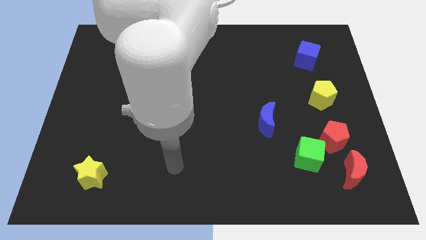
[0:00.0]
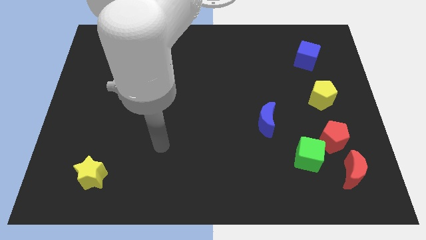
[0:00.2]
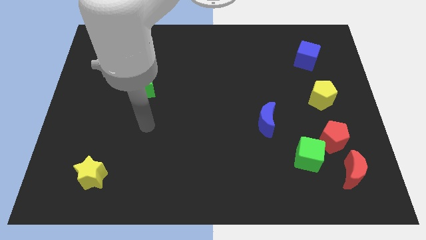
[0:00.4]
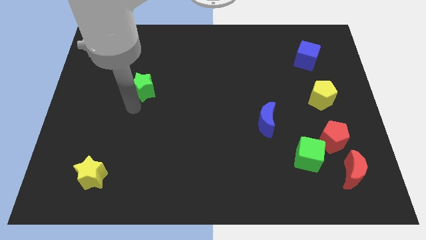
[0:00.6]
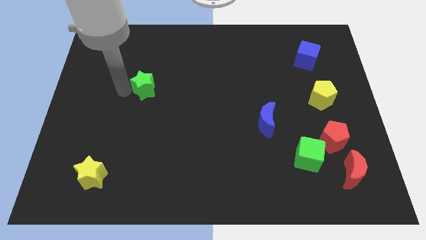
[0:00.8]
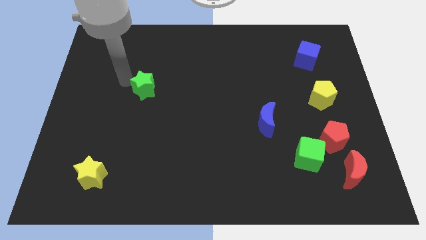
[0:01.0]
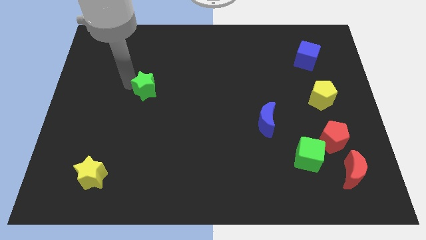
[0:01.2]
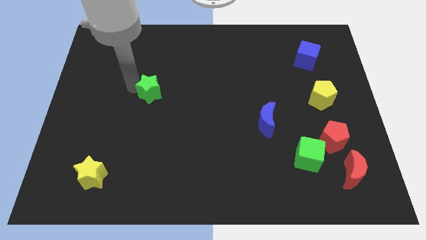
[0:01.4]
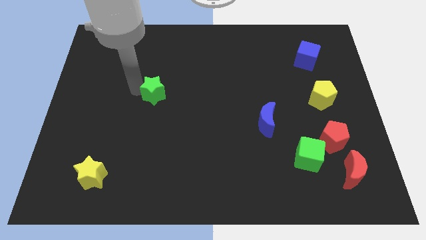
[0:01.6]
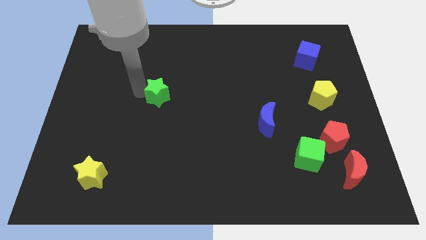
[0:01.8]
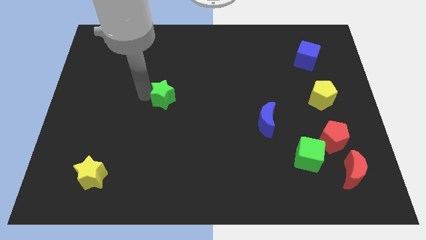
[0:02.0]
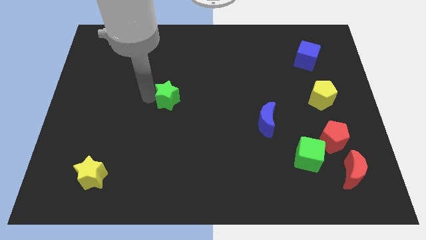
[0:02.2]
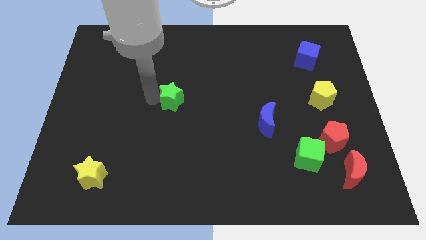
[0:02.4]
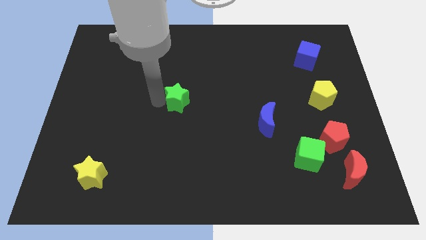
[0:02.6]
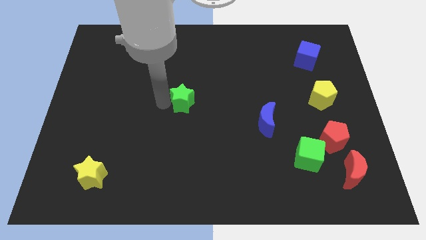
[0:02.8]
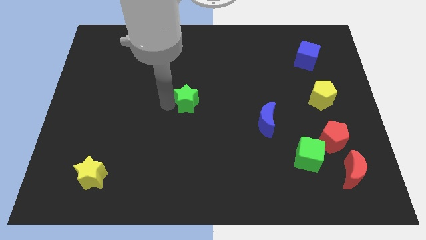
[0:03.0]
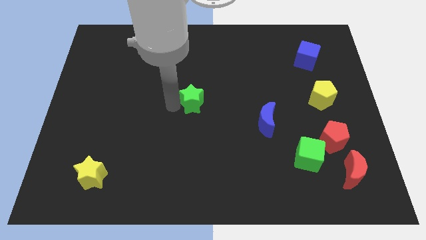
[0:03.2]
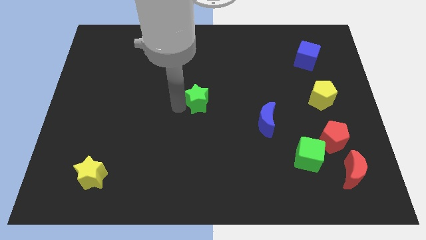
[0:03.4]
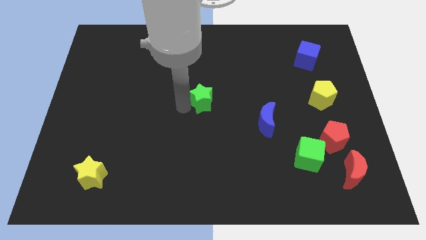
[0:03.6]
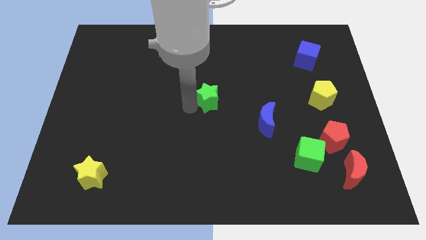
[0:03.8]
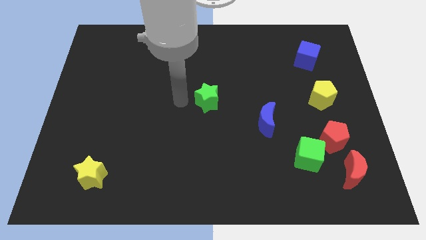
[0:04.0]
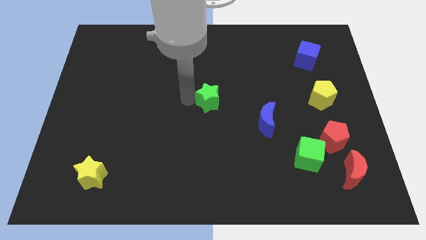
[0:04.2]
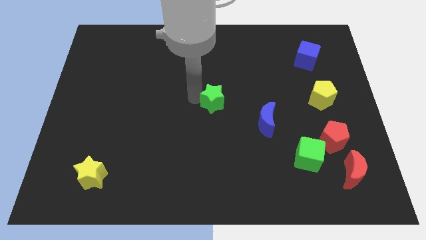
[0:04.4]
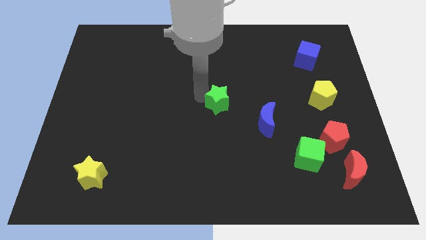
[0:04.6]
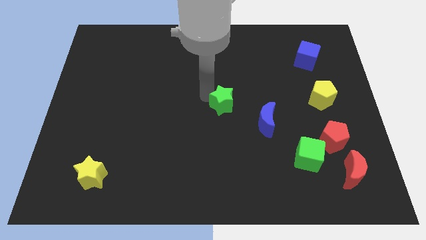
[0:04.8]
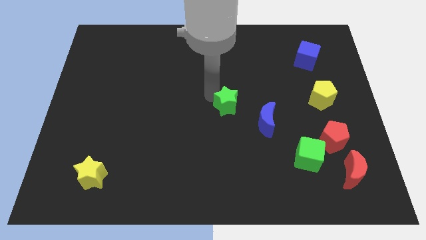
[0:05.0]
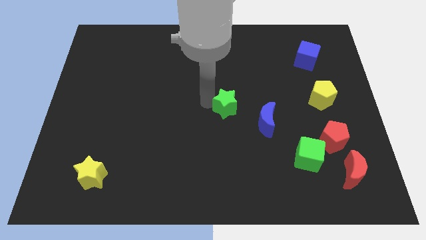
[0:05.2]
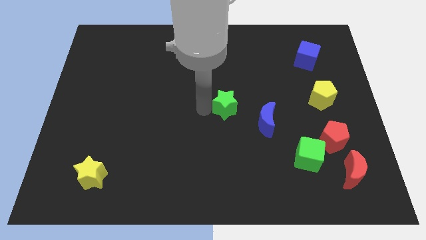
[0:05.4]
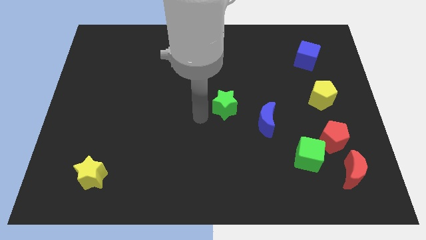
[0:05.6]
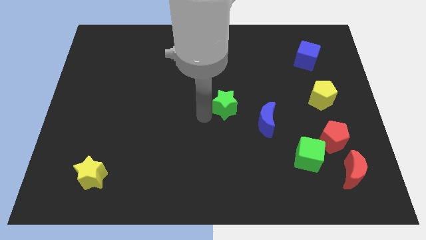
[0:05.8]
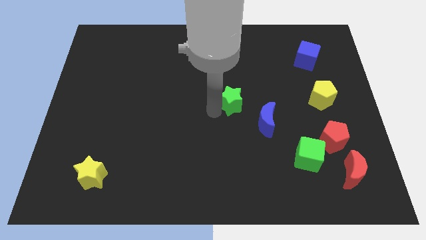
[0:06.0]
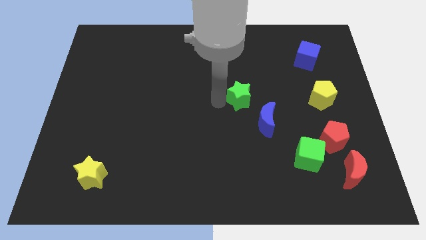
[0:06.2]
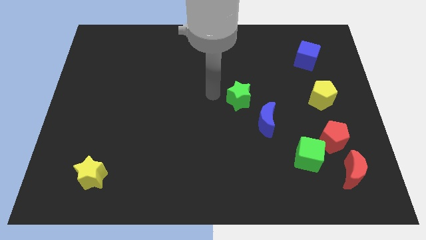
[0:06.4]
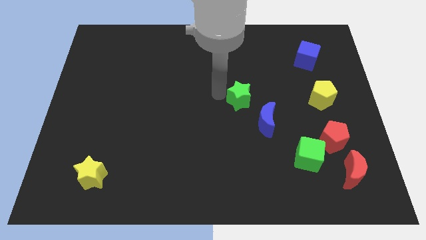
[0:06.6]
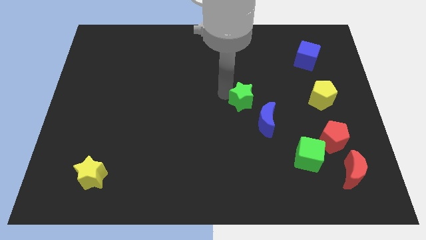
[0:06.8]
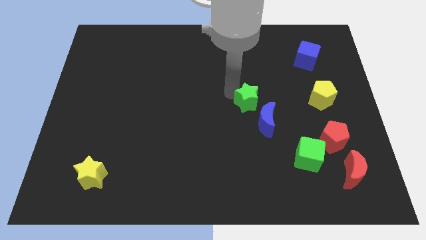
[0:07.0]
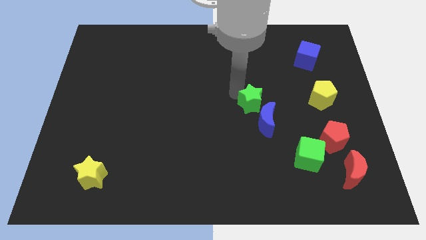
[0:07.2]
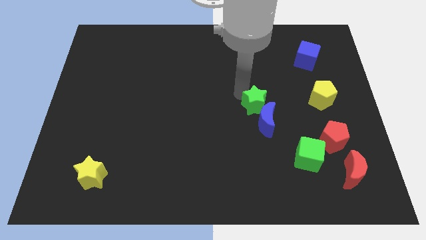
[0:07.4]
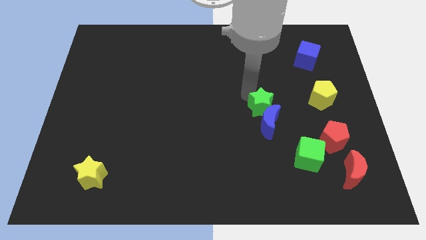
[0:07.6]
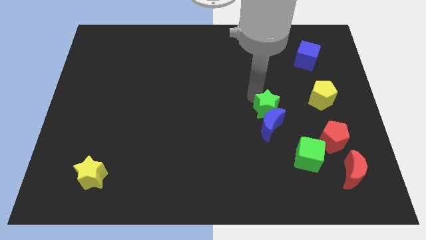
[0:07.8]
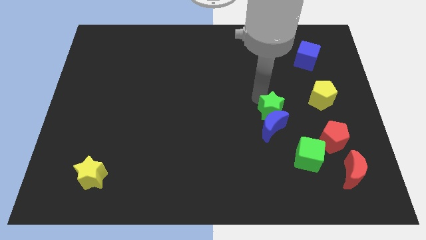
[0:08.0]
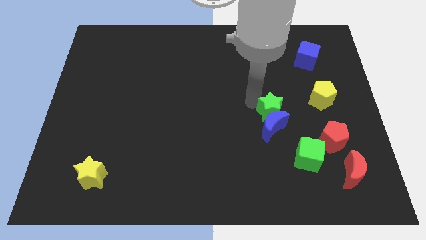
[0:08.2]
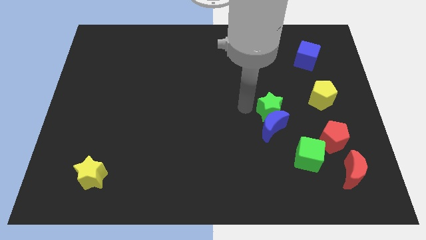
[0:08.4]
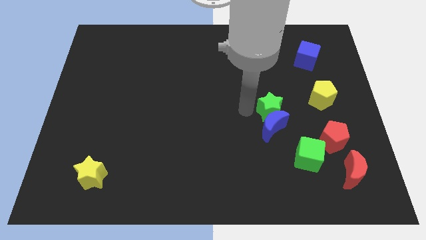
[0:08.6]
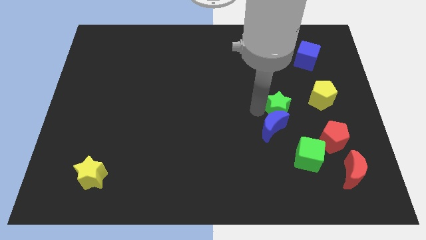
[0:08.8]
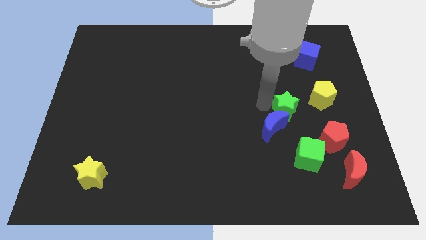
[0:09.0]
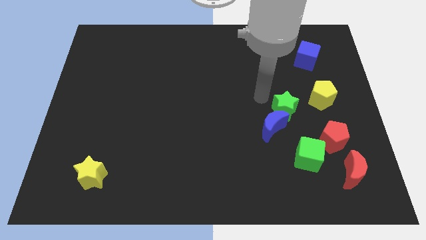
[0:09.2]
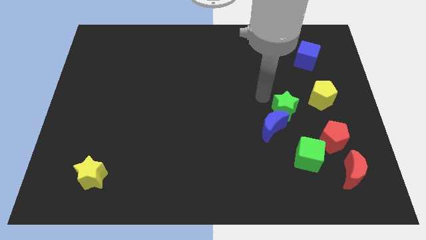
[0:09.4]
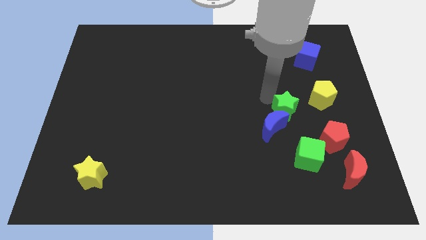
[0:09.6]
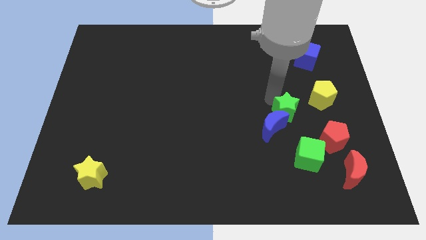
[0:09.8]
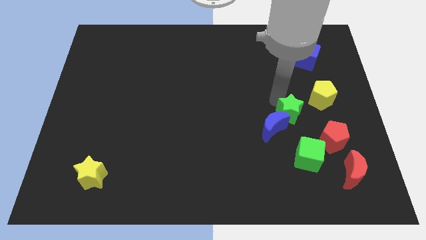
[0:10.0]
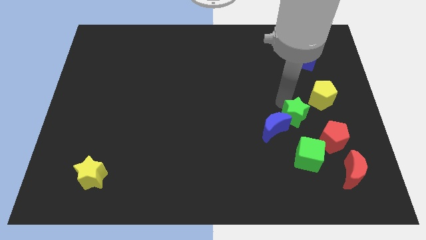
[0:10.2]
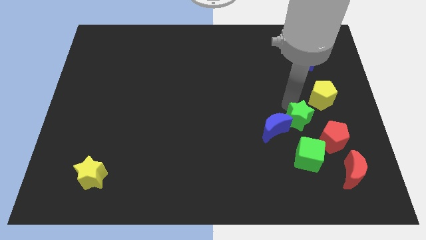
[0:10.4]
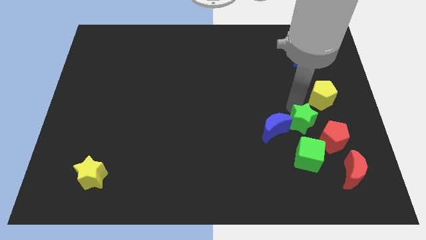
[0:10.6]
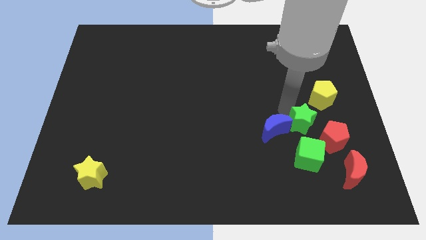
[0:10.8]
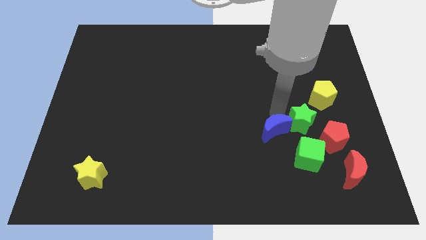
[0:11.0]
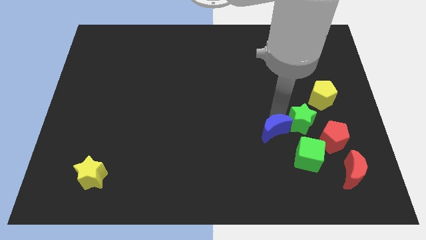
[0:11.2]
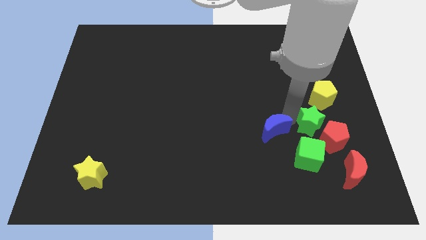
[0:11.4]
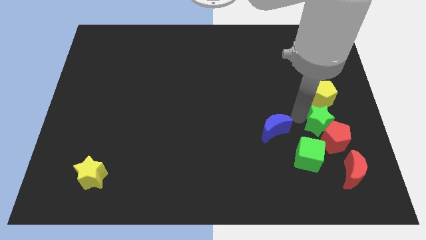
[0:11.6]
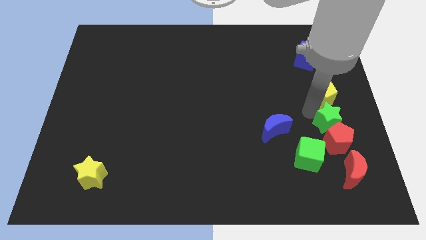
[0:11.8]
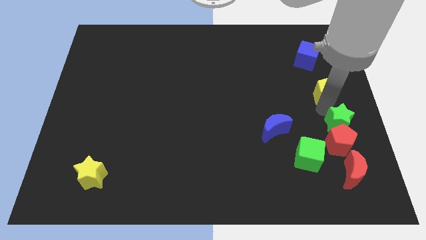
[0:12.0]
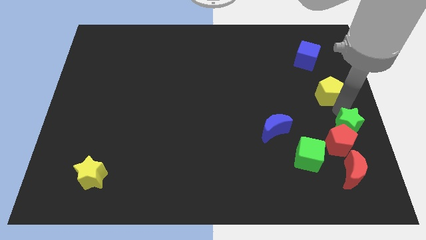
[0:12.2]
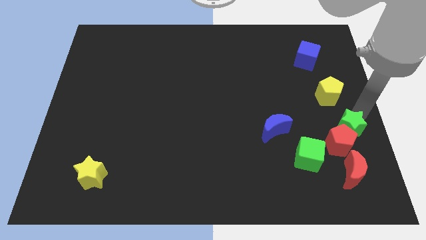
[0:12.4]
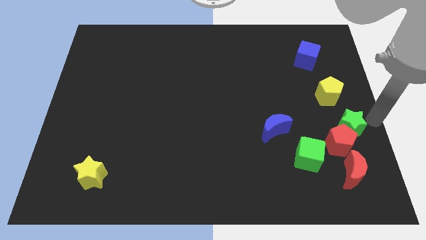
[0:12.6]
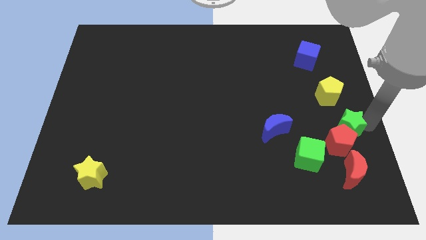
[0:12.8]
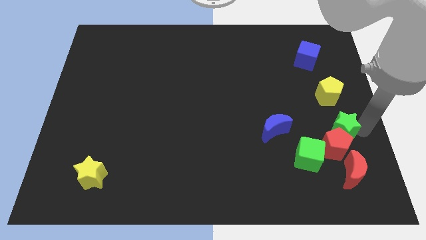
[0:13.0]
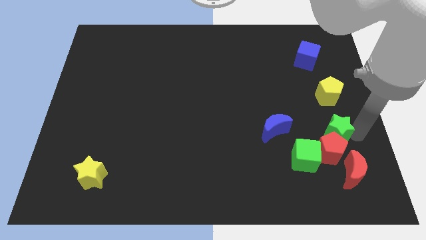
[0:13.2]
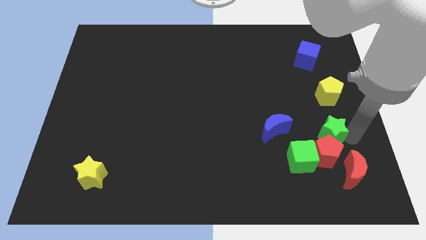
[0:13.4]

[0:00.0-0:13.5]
put the green star to the top left of the red moon
